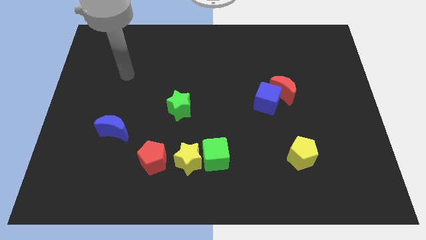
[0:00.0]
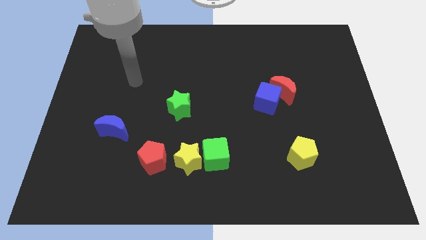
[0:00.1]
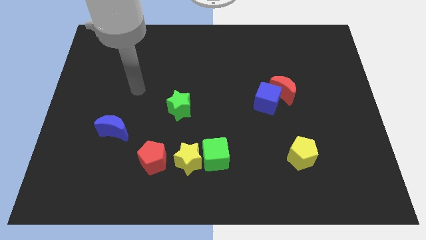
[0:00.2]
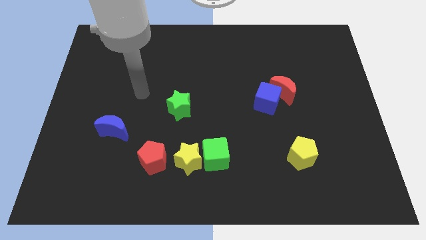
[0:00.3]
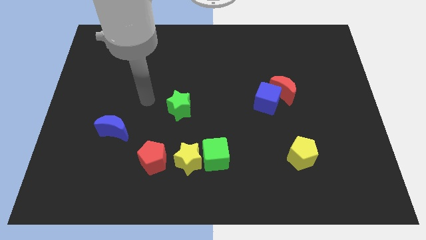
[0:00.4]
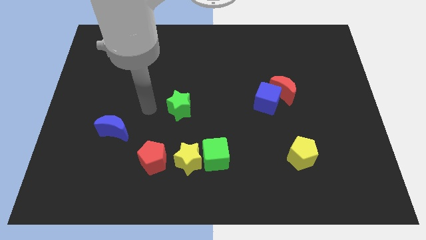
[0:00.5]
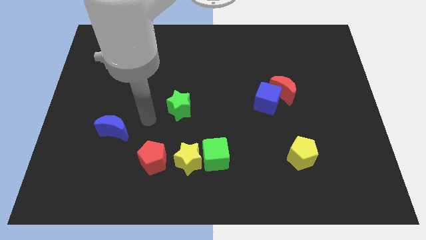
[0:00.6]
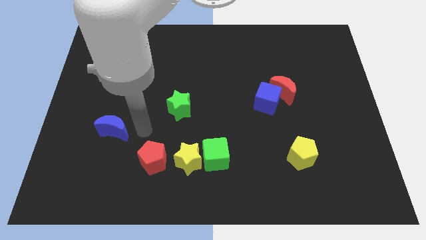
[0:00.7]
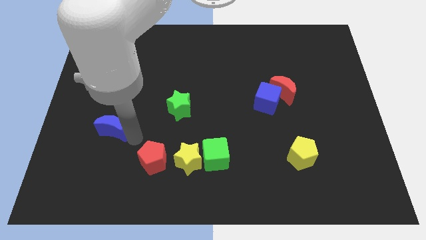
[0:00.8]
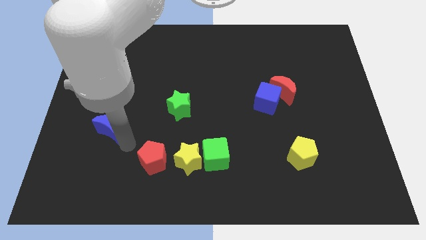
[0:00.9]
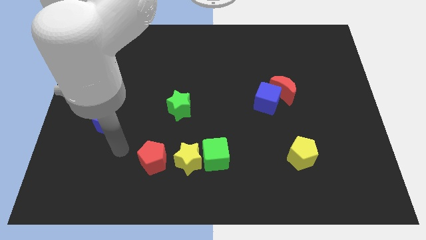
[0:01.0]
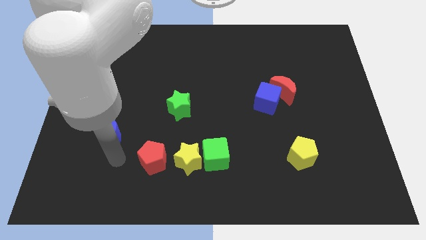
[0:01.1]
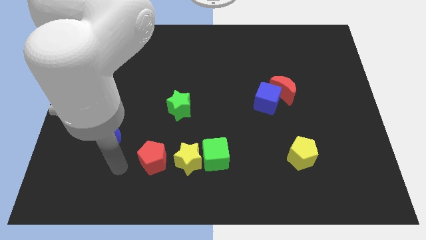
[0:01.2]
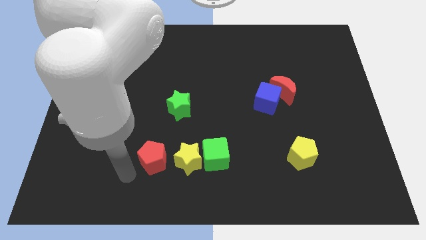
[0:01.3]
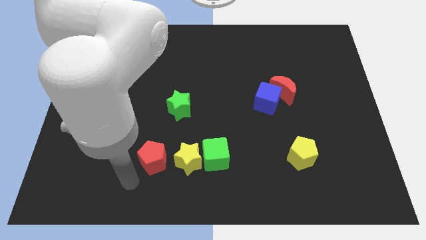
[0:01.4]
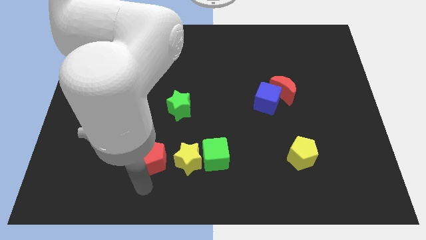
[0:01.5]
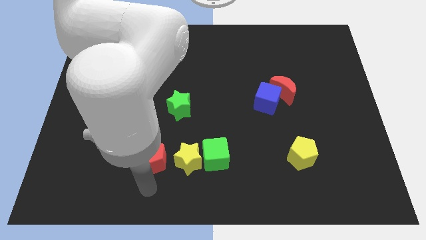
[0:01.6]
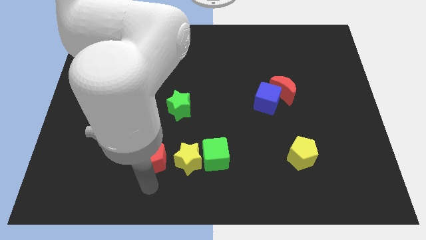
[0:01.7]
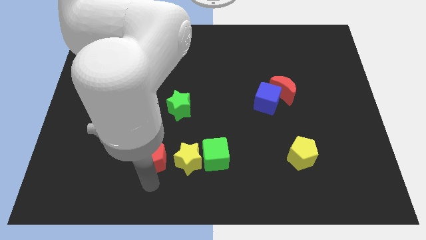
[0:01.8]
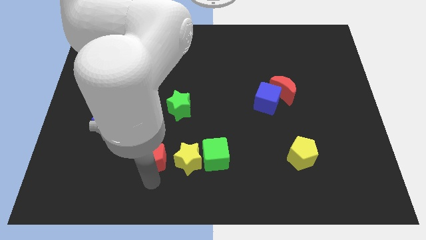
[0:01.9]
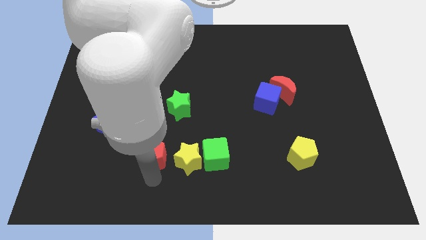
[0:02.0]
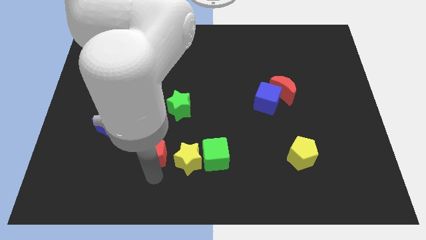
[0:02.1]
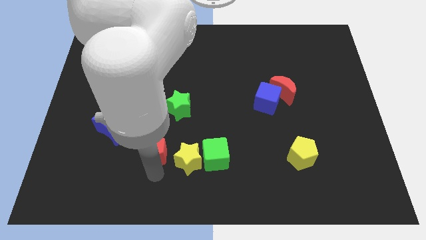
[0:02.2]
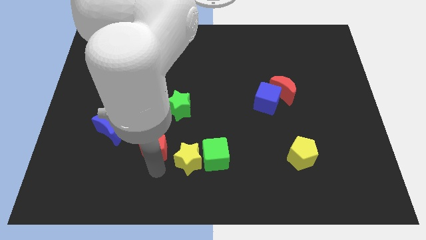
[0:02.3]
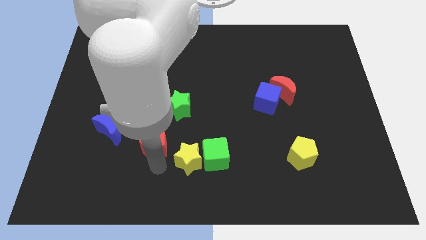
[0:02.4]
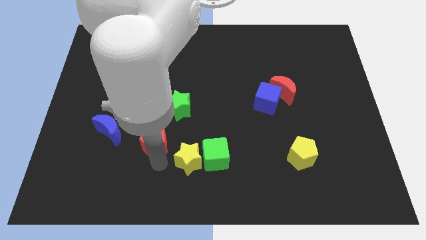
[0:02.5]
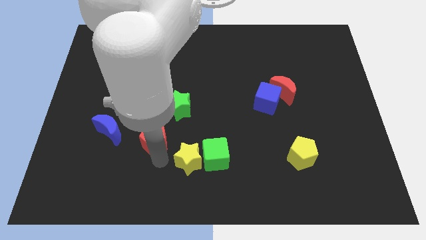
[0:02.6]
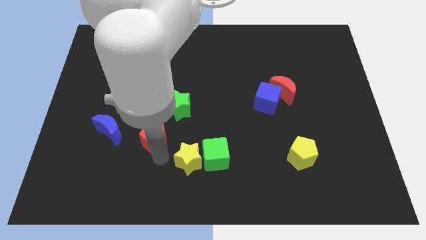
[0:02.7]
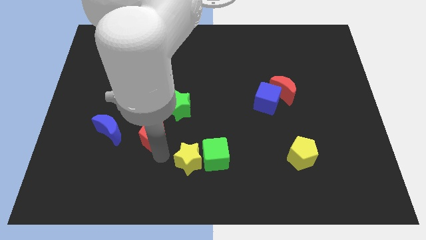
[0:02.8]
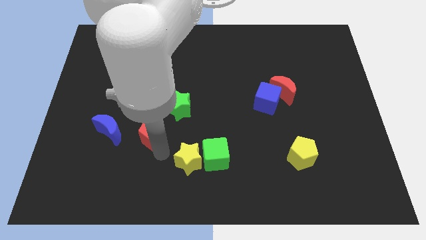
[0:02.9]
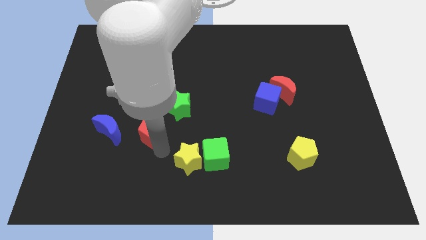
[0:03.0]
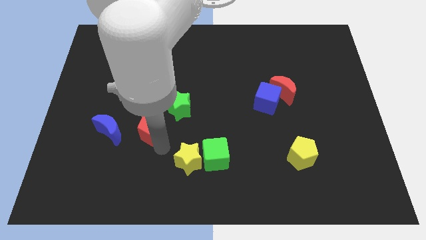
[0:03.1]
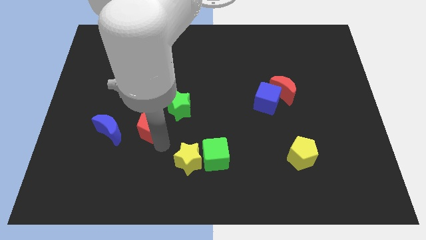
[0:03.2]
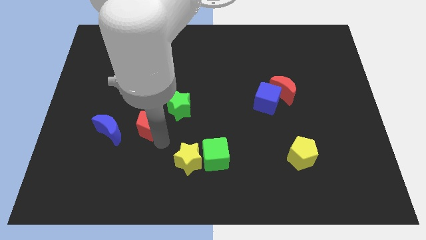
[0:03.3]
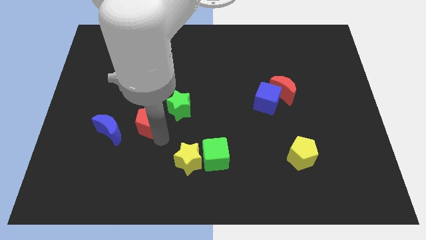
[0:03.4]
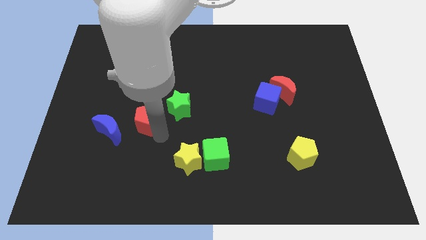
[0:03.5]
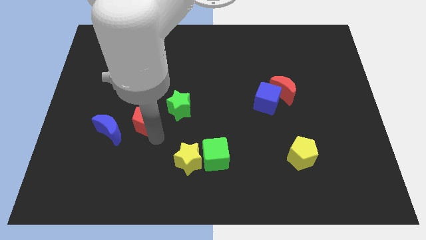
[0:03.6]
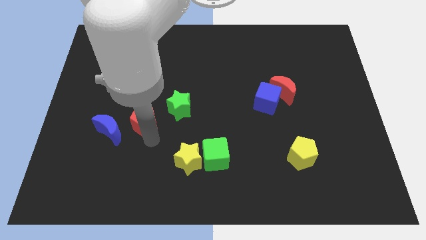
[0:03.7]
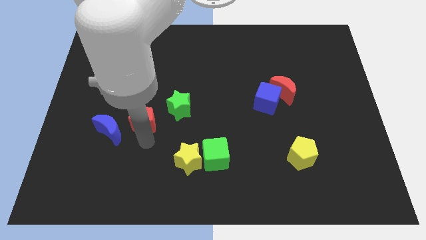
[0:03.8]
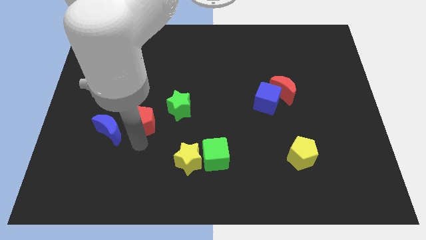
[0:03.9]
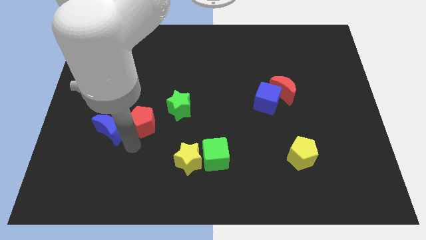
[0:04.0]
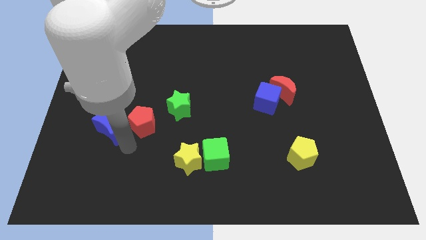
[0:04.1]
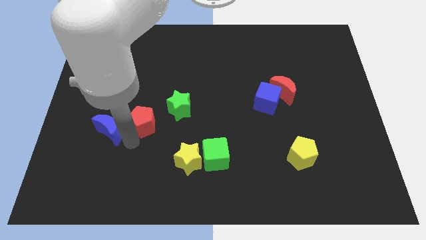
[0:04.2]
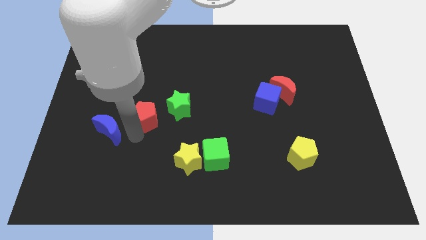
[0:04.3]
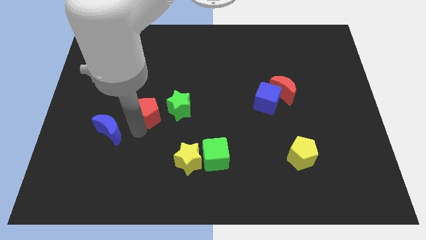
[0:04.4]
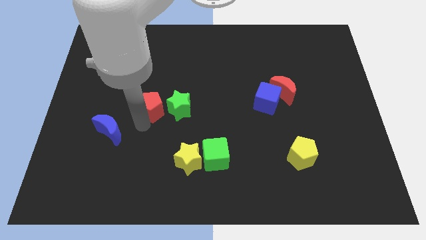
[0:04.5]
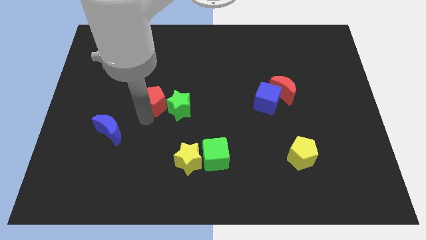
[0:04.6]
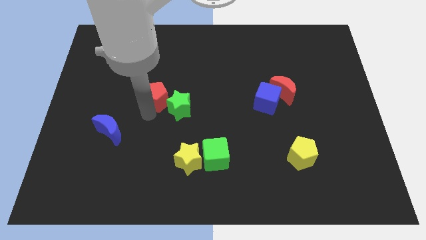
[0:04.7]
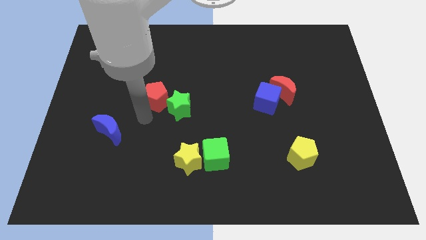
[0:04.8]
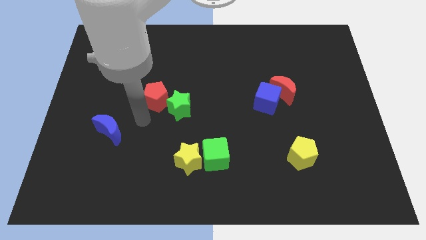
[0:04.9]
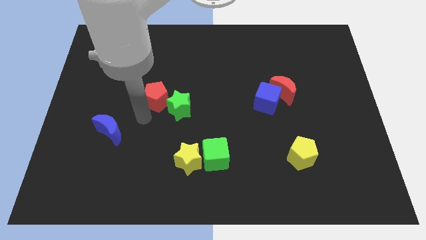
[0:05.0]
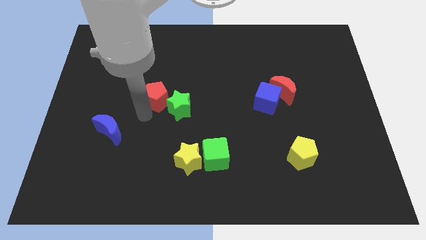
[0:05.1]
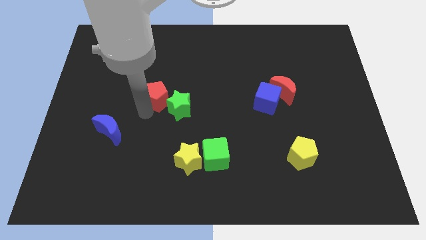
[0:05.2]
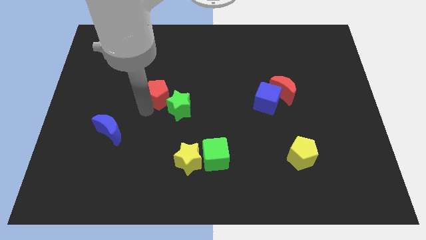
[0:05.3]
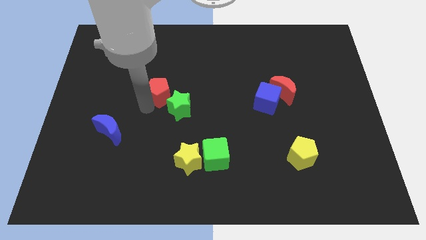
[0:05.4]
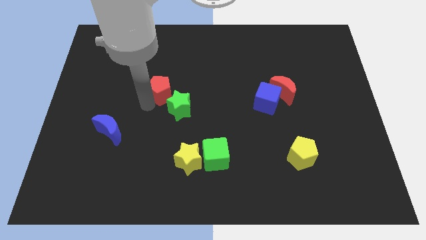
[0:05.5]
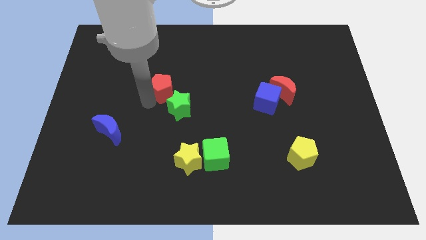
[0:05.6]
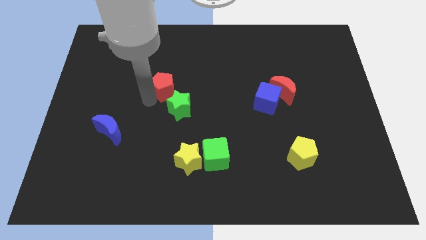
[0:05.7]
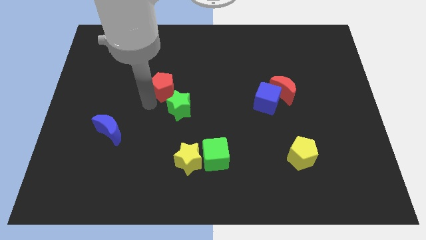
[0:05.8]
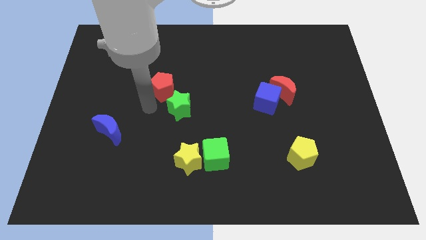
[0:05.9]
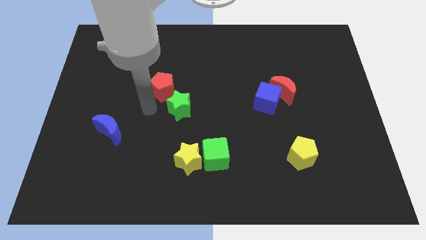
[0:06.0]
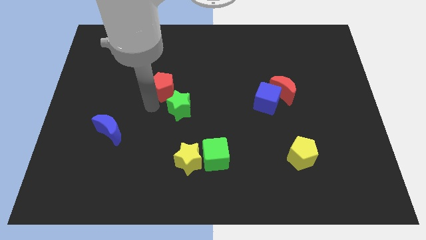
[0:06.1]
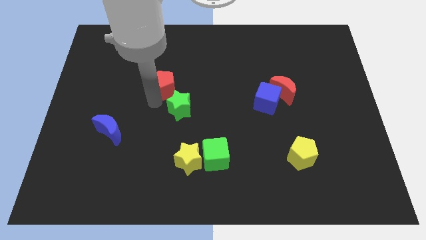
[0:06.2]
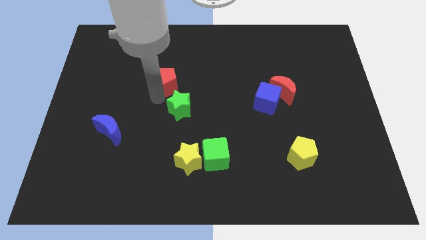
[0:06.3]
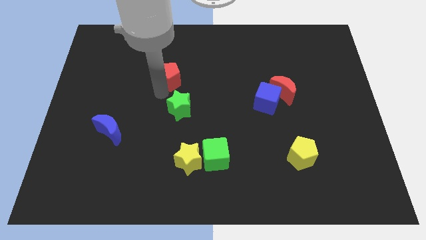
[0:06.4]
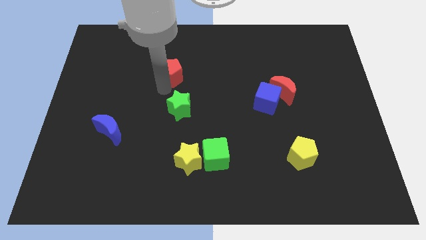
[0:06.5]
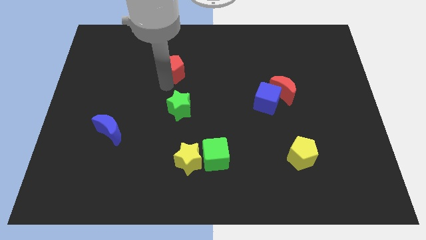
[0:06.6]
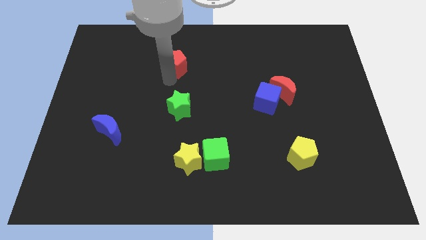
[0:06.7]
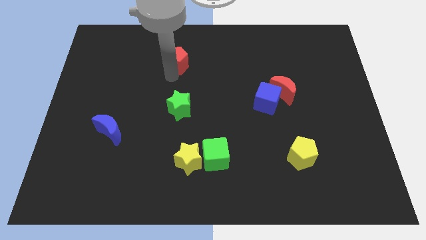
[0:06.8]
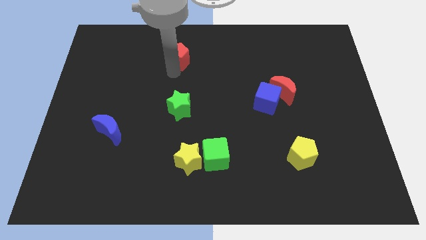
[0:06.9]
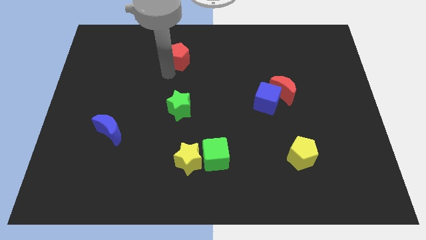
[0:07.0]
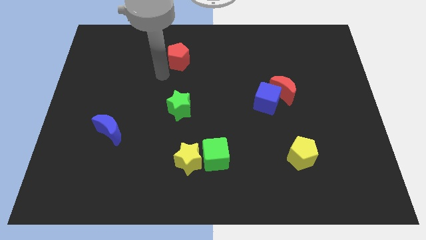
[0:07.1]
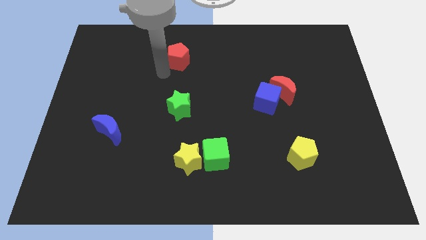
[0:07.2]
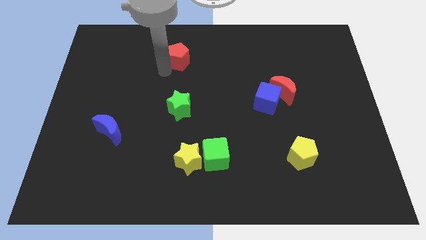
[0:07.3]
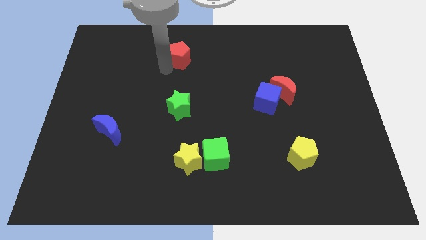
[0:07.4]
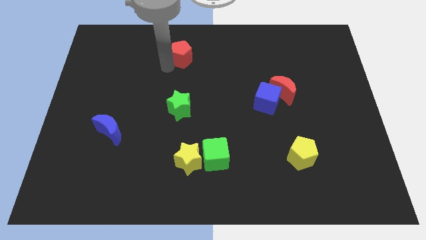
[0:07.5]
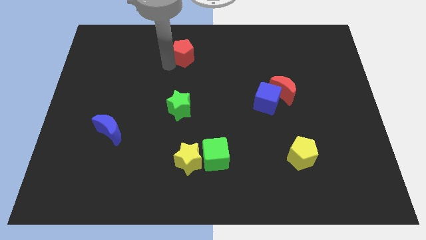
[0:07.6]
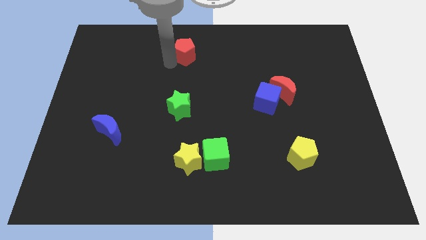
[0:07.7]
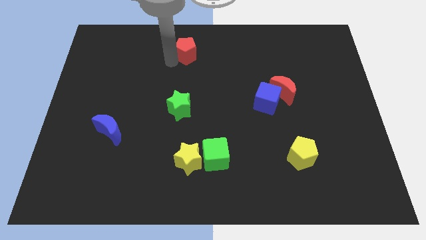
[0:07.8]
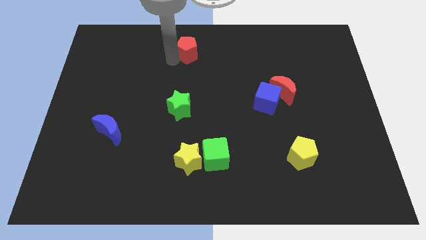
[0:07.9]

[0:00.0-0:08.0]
push the red pentagon to the towards your base
